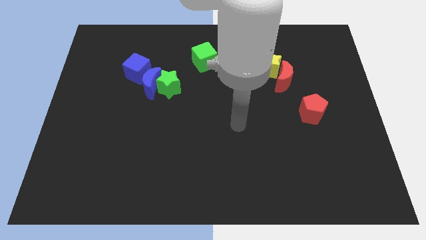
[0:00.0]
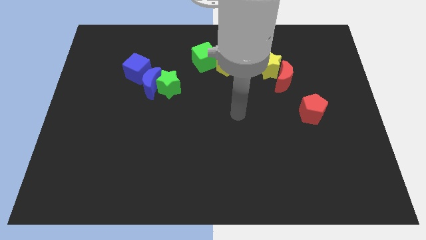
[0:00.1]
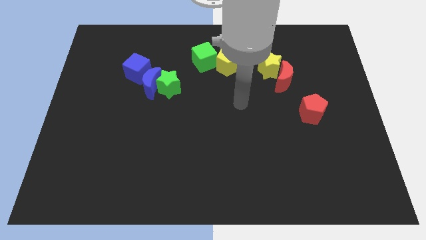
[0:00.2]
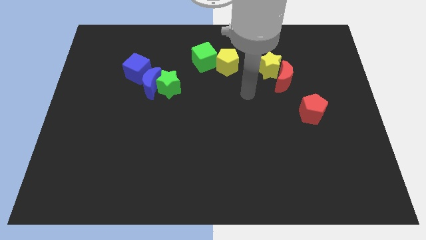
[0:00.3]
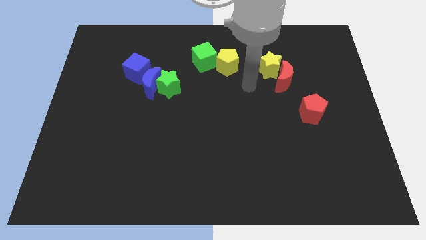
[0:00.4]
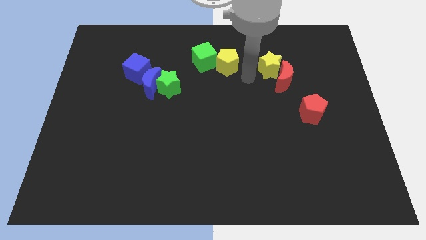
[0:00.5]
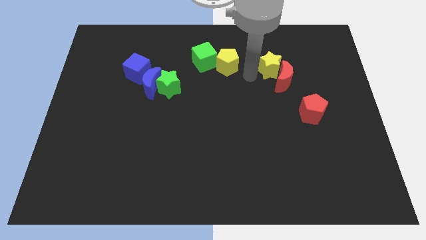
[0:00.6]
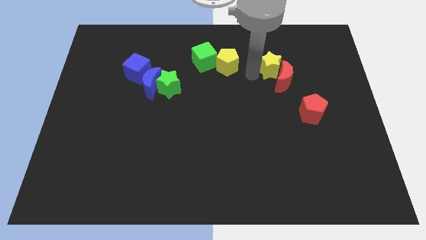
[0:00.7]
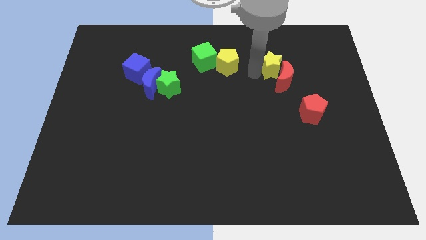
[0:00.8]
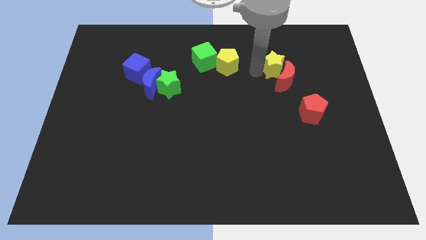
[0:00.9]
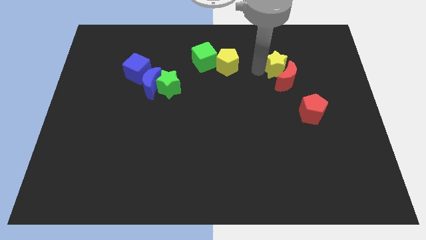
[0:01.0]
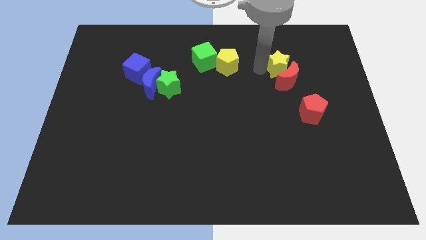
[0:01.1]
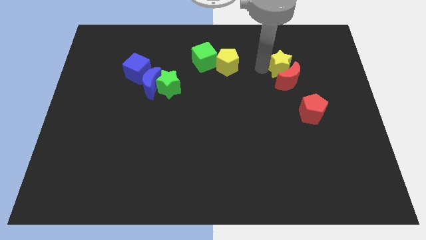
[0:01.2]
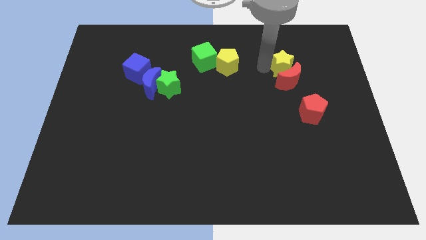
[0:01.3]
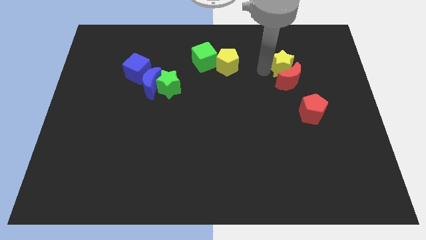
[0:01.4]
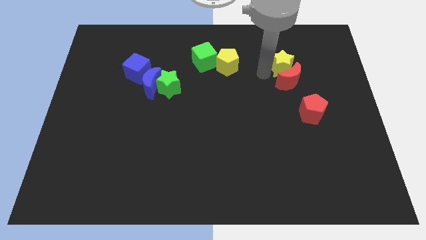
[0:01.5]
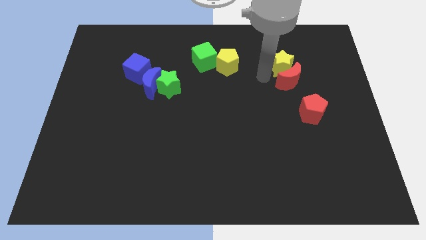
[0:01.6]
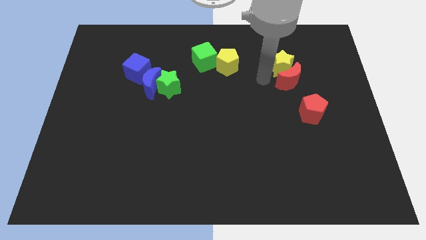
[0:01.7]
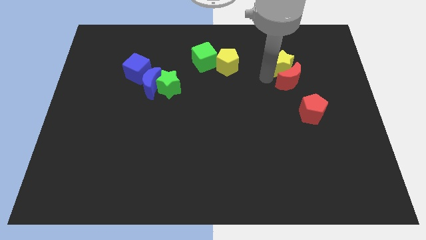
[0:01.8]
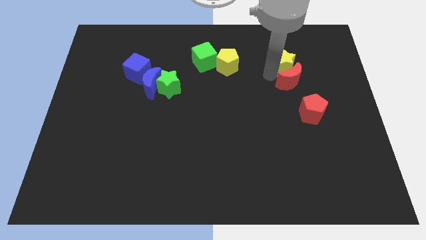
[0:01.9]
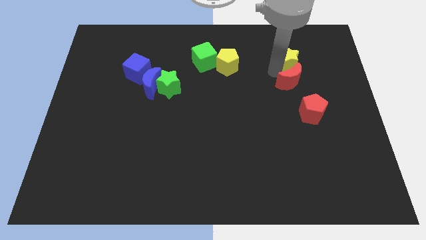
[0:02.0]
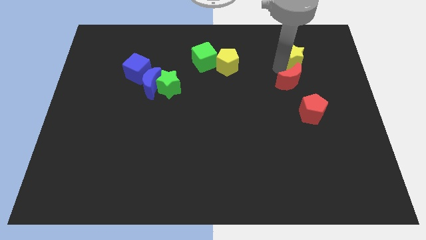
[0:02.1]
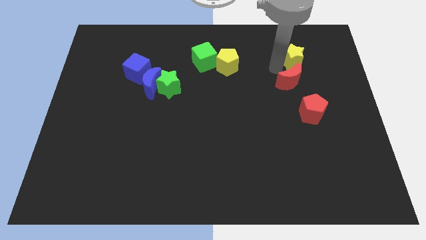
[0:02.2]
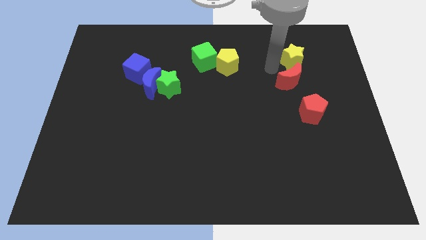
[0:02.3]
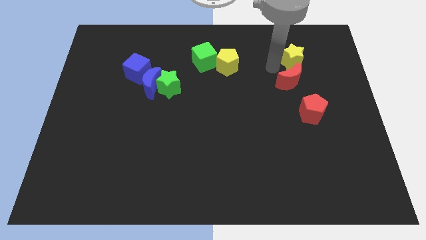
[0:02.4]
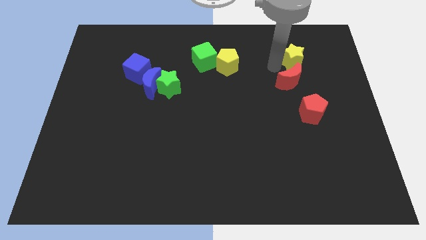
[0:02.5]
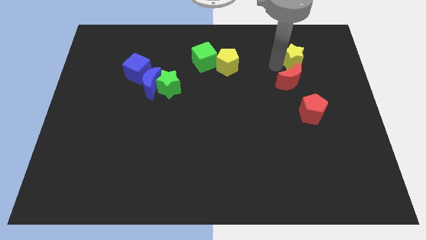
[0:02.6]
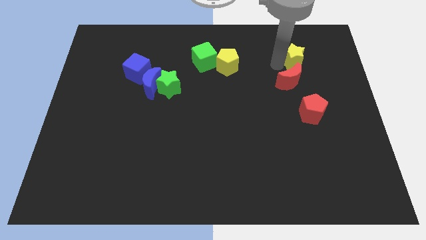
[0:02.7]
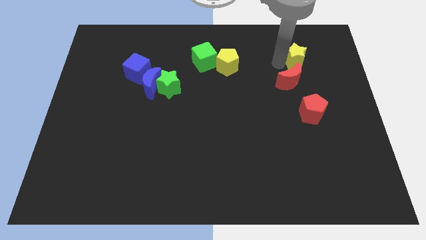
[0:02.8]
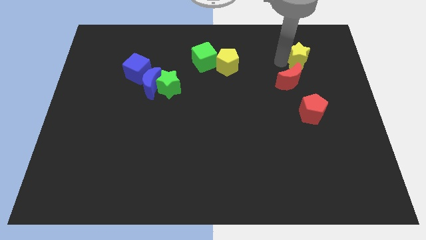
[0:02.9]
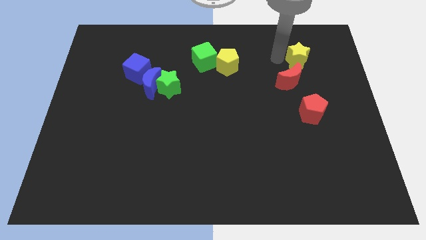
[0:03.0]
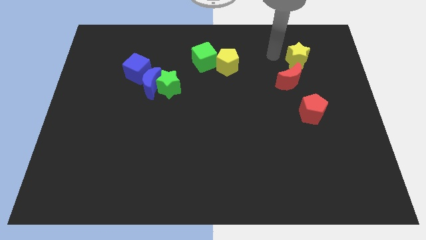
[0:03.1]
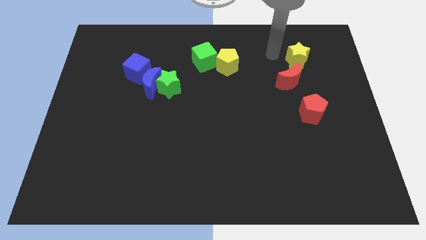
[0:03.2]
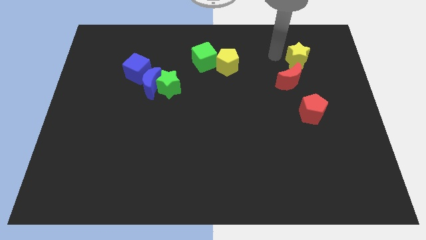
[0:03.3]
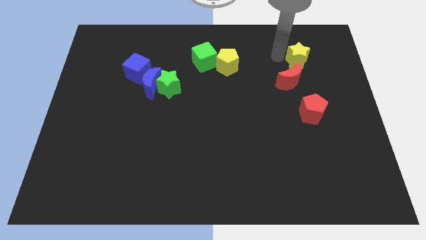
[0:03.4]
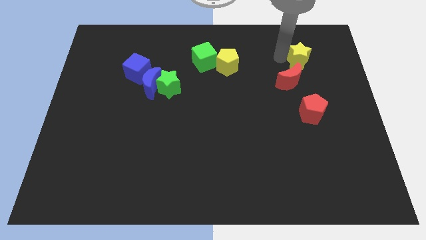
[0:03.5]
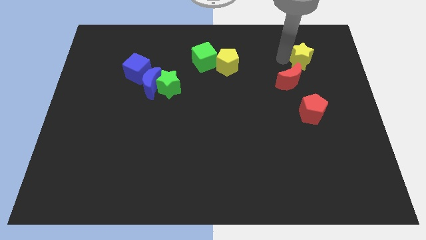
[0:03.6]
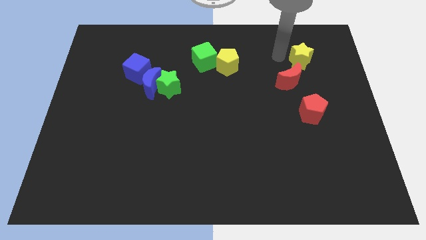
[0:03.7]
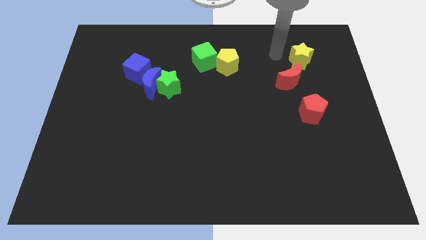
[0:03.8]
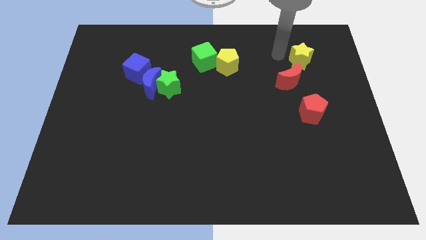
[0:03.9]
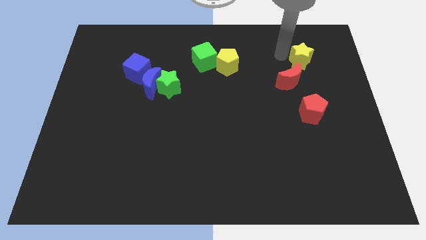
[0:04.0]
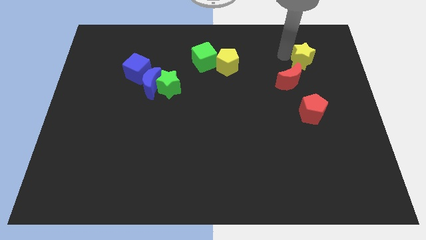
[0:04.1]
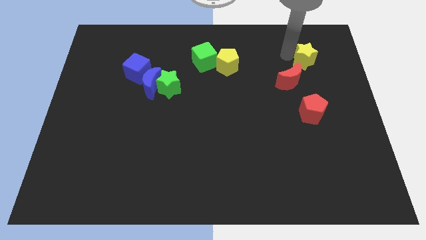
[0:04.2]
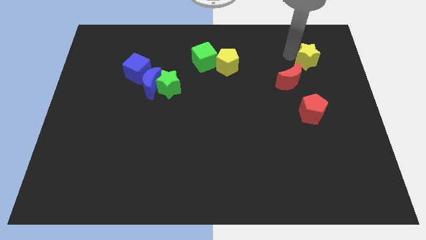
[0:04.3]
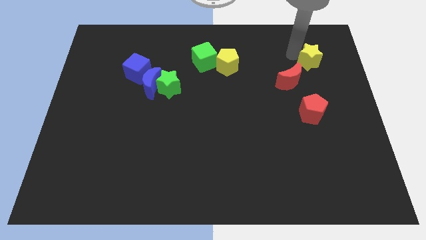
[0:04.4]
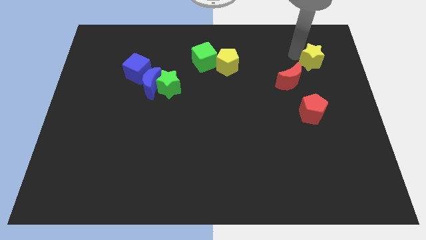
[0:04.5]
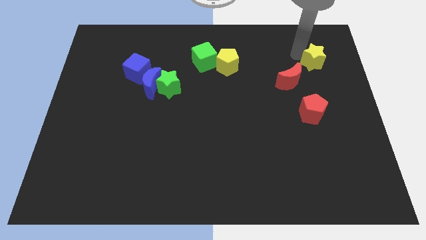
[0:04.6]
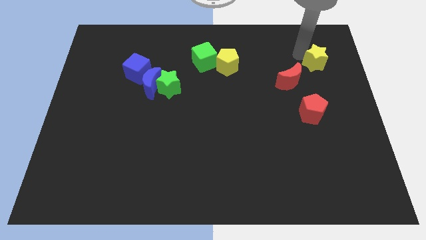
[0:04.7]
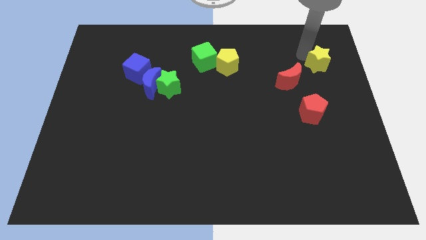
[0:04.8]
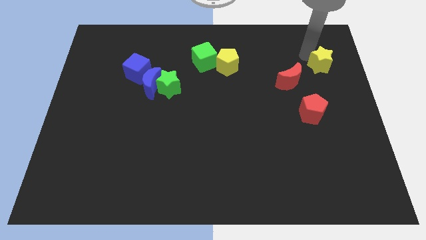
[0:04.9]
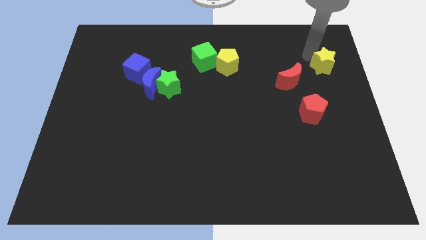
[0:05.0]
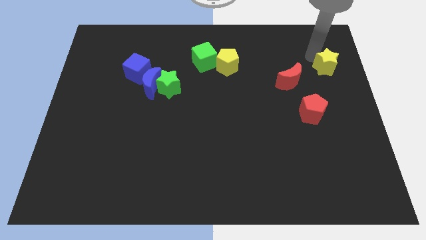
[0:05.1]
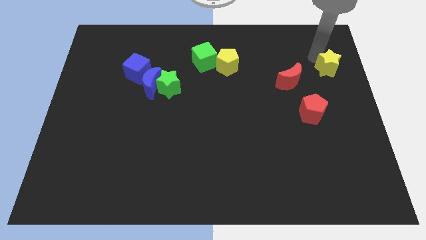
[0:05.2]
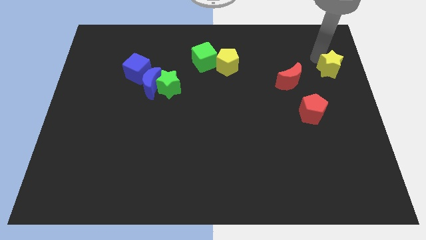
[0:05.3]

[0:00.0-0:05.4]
push the yellow star to the center right

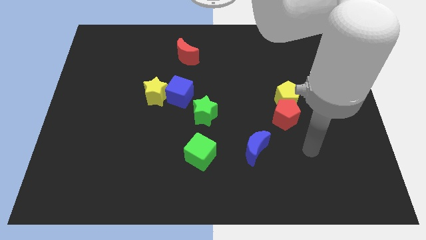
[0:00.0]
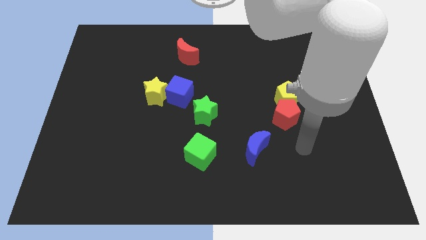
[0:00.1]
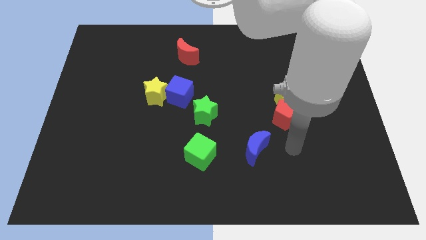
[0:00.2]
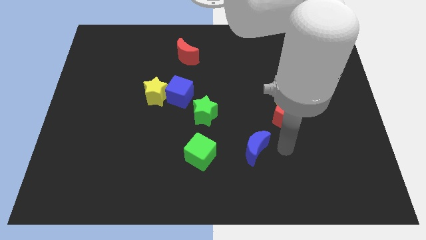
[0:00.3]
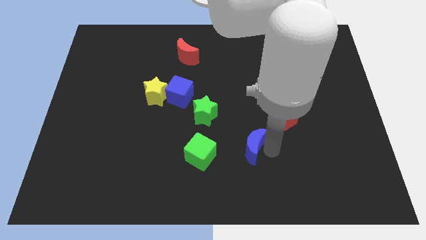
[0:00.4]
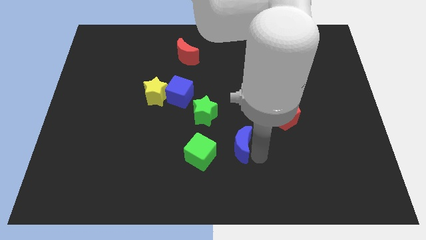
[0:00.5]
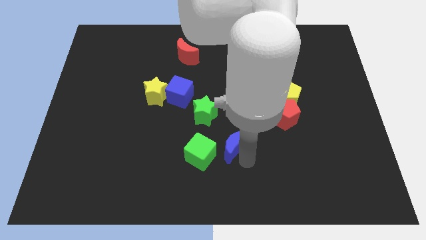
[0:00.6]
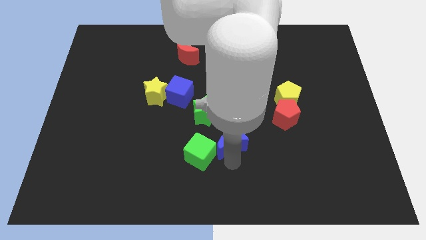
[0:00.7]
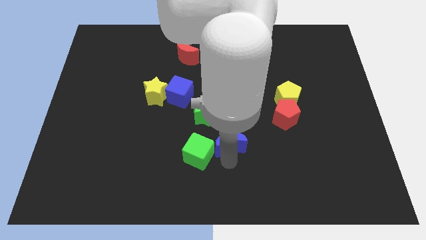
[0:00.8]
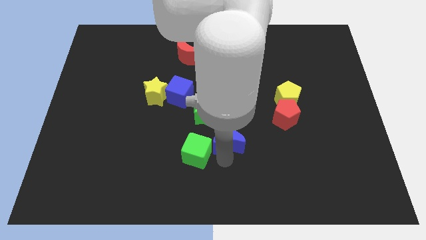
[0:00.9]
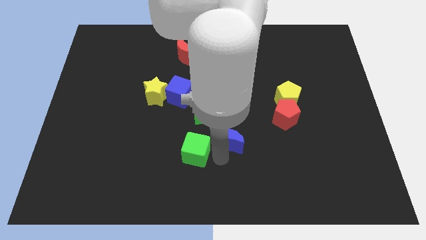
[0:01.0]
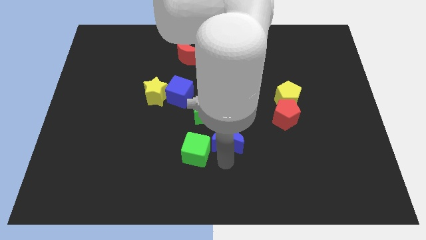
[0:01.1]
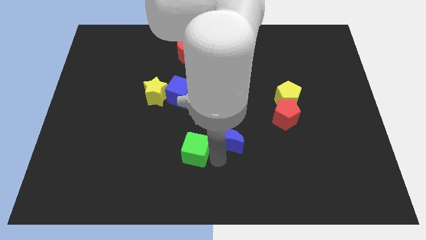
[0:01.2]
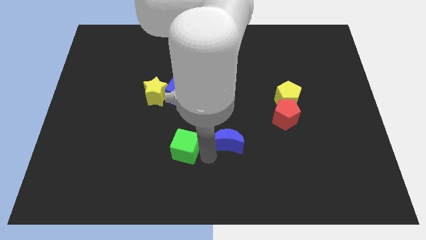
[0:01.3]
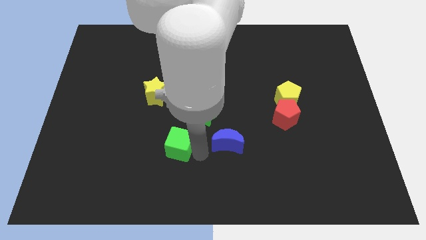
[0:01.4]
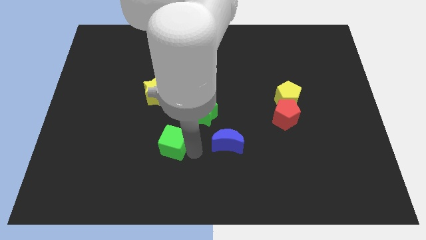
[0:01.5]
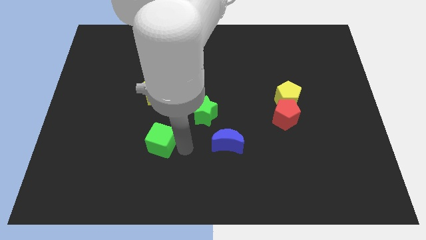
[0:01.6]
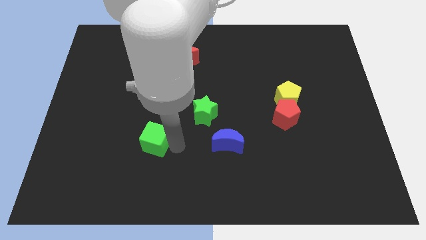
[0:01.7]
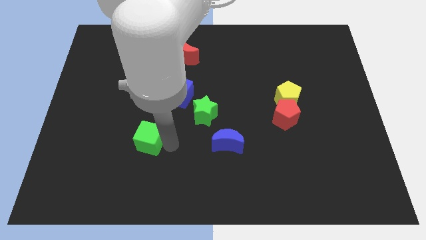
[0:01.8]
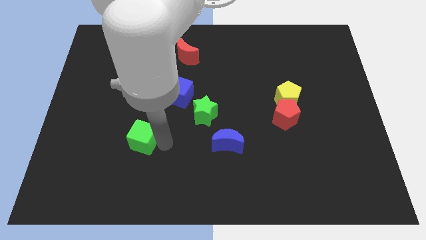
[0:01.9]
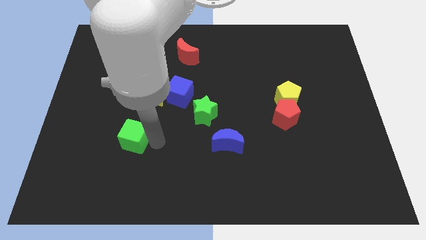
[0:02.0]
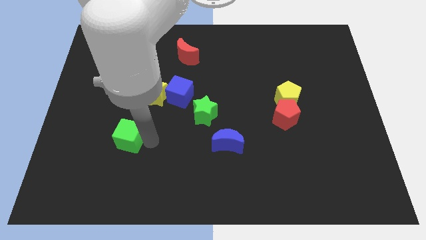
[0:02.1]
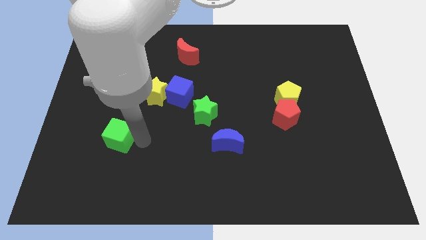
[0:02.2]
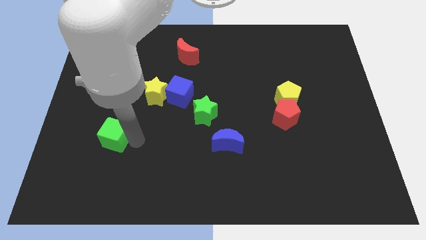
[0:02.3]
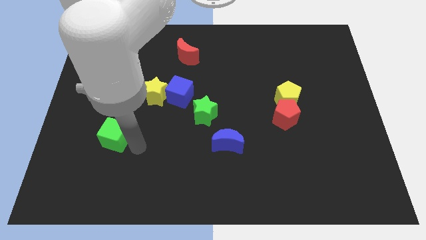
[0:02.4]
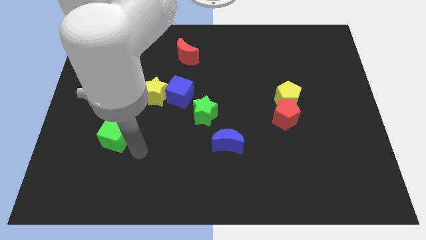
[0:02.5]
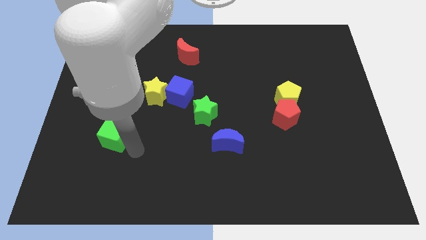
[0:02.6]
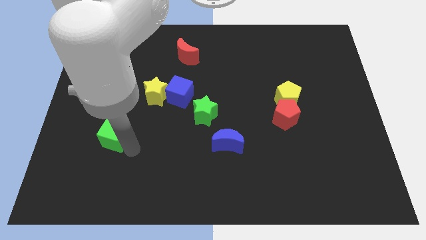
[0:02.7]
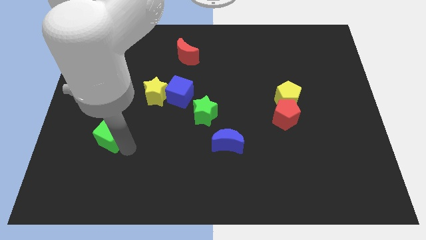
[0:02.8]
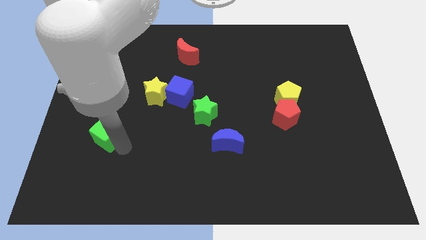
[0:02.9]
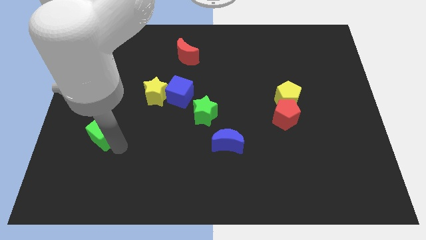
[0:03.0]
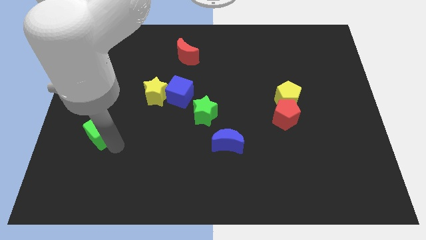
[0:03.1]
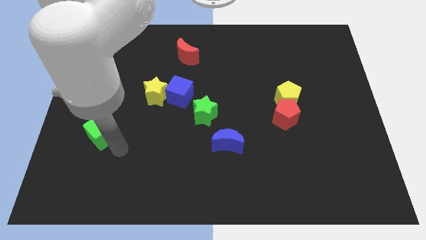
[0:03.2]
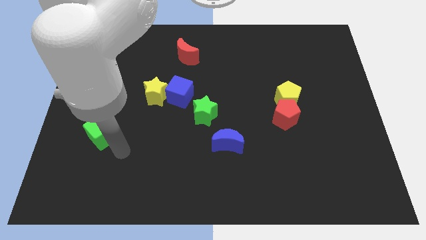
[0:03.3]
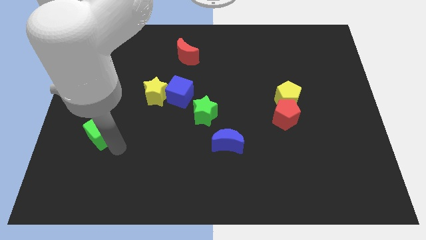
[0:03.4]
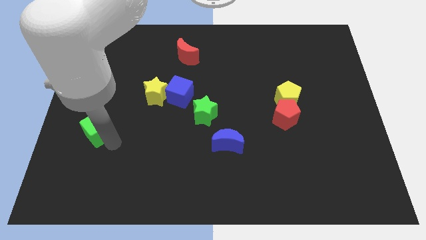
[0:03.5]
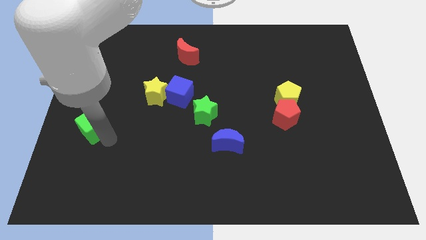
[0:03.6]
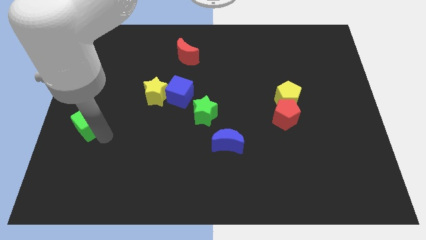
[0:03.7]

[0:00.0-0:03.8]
push the green cube to the center left
